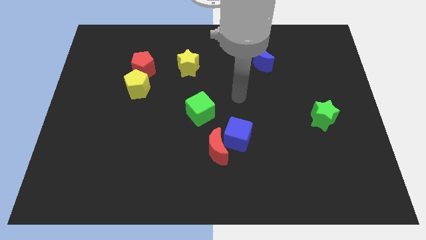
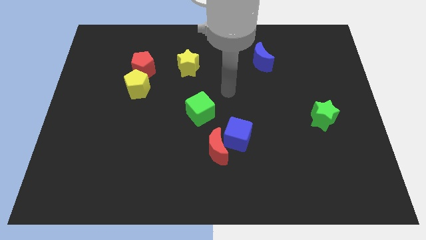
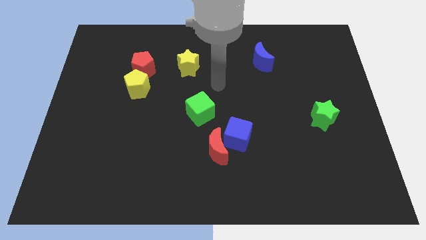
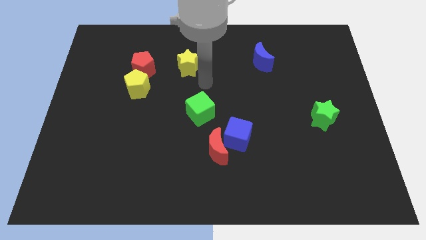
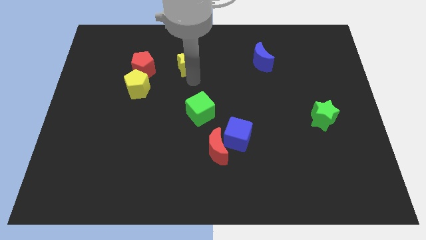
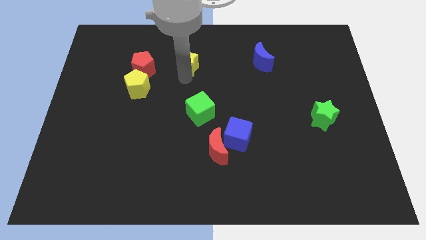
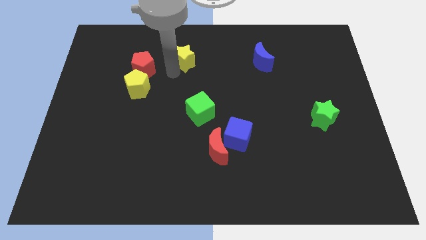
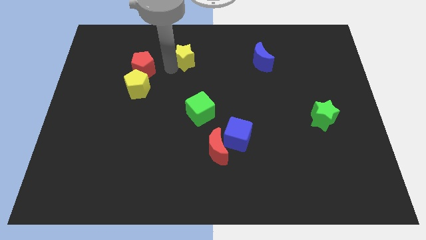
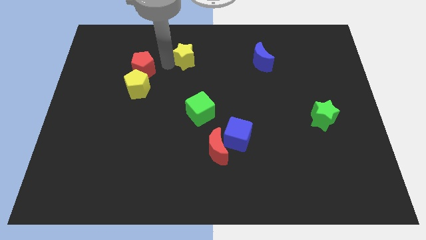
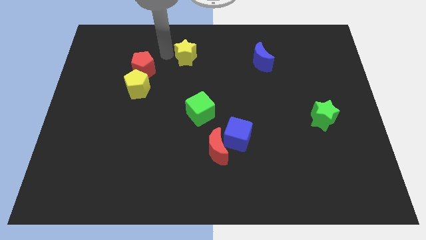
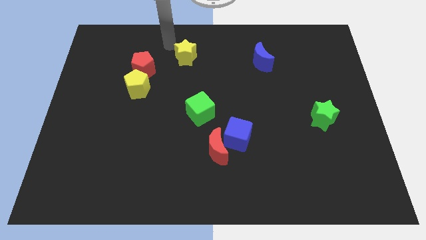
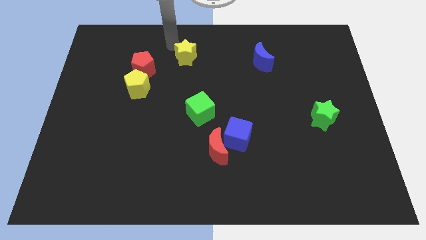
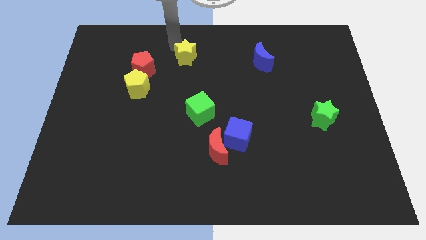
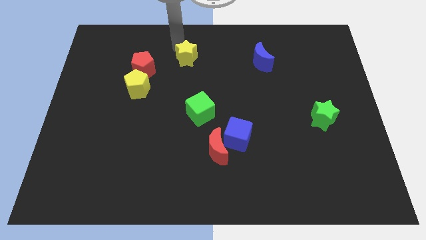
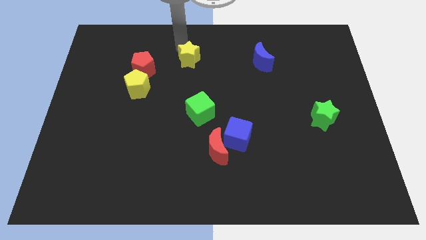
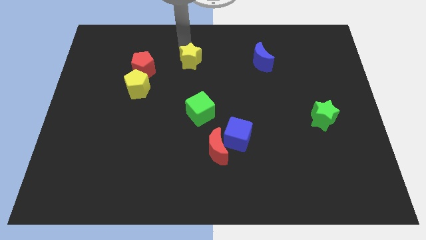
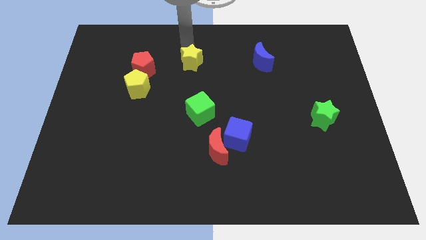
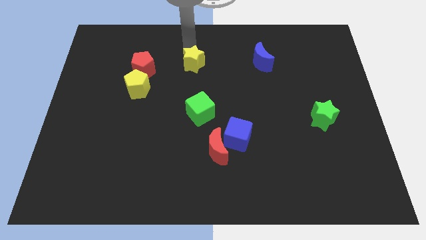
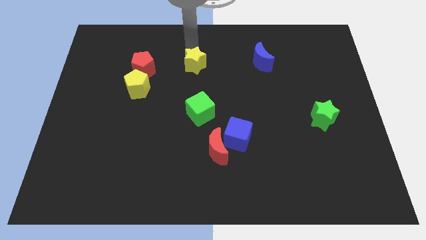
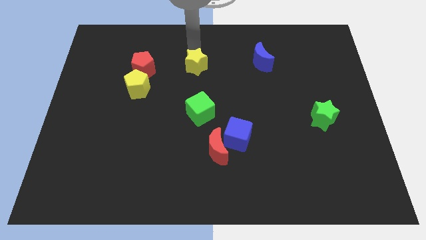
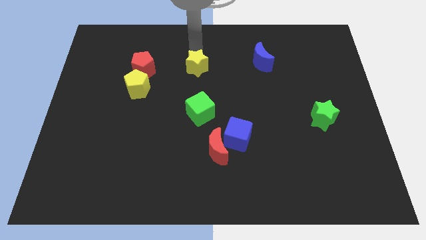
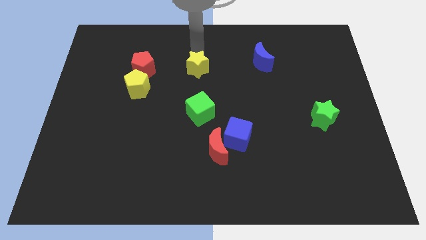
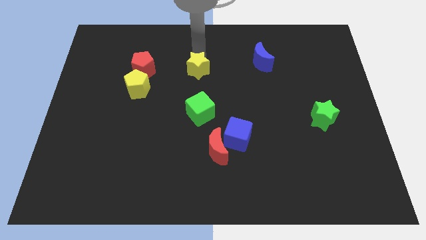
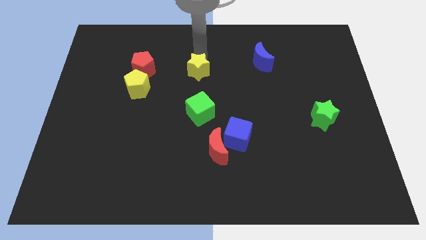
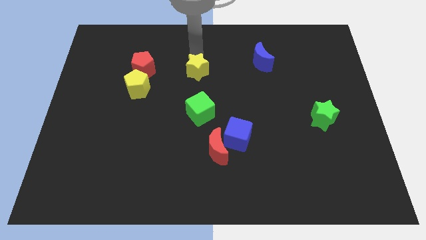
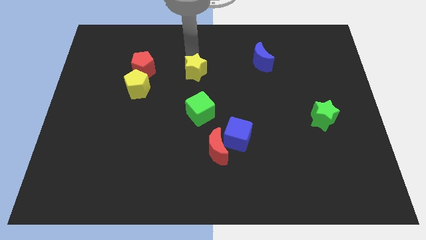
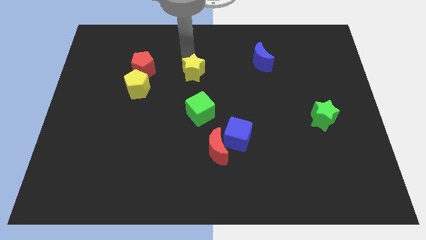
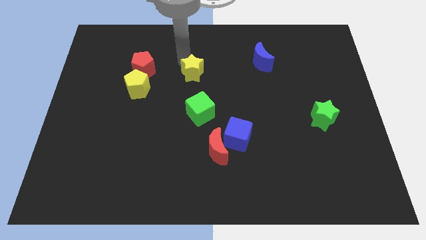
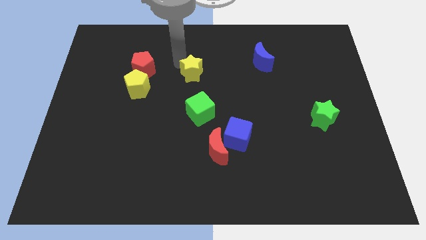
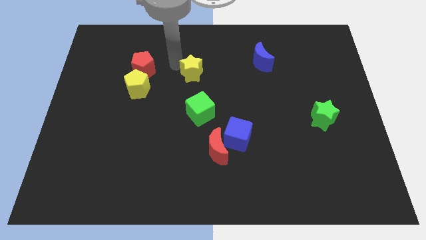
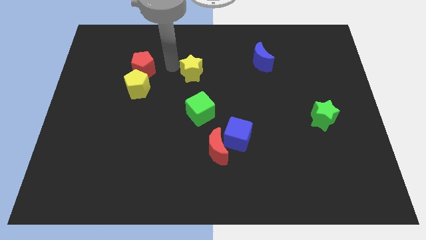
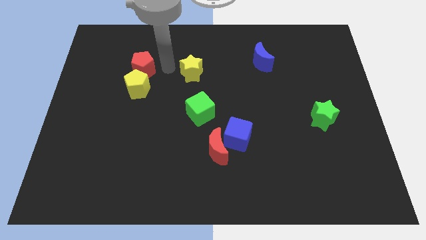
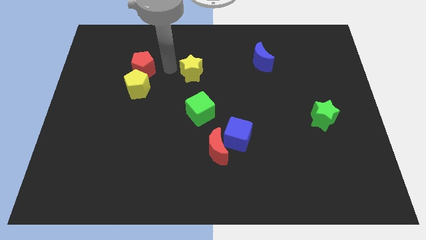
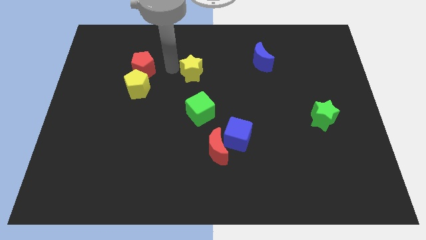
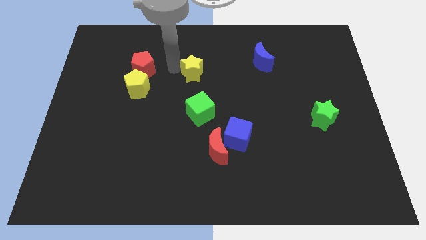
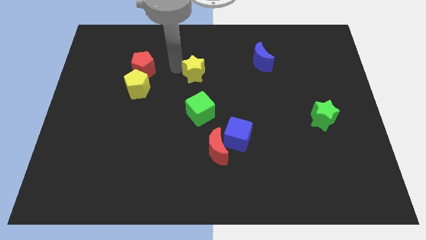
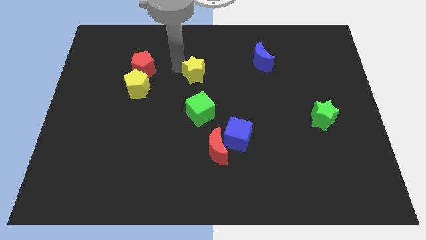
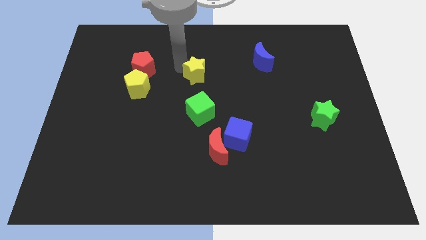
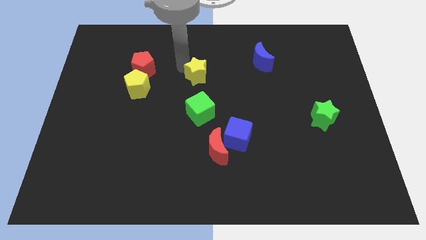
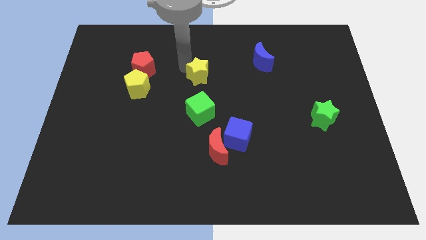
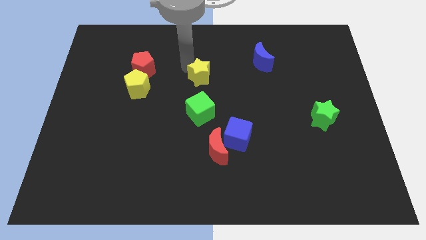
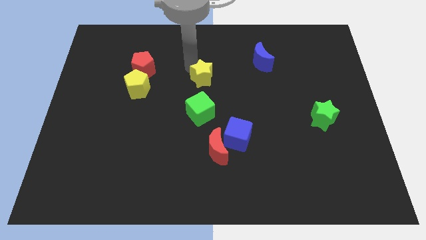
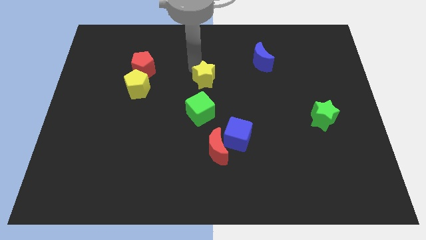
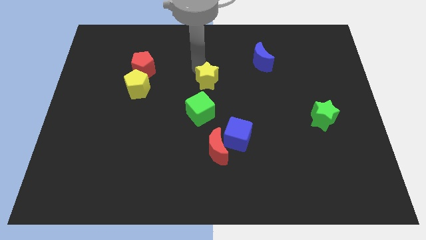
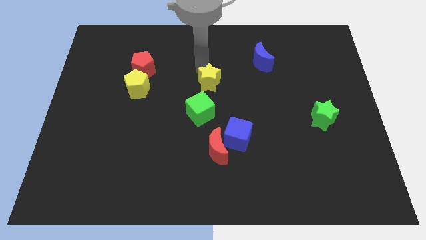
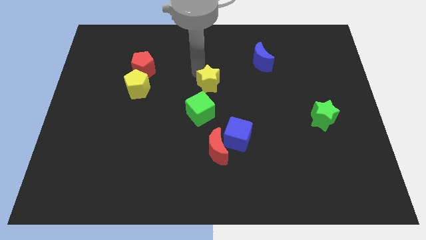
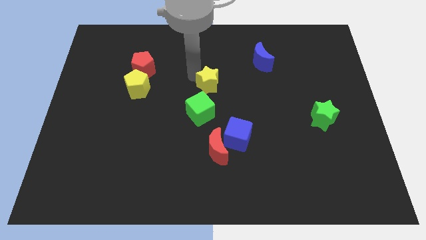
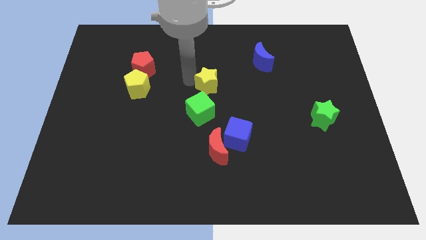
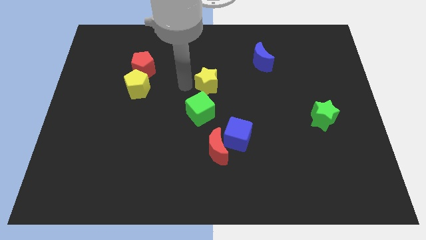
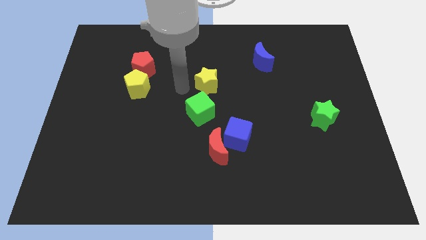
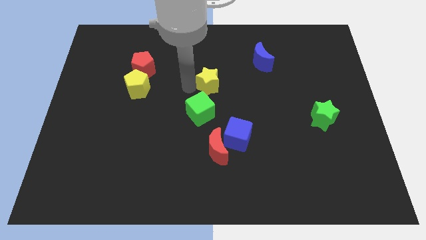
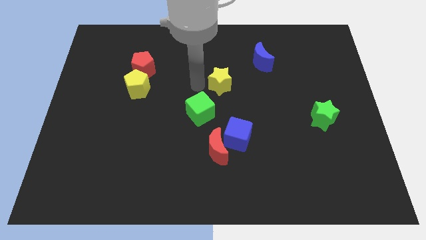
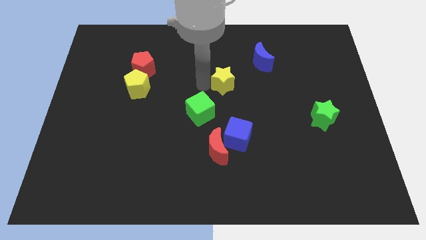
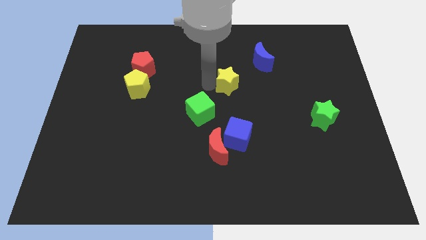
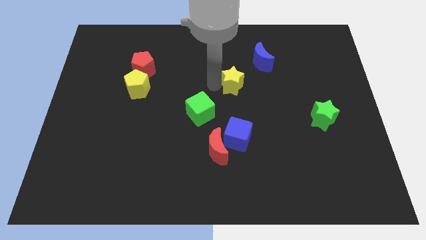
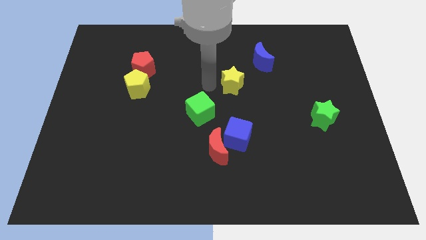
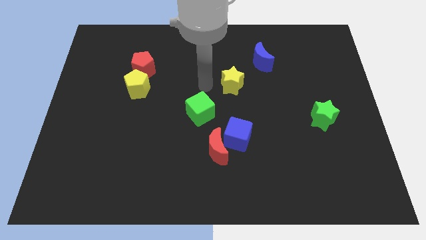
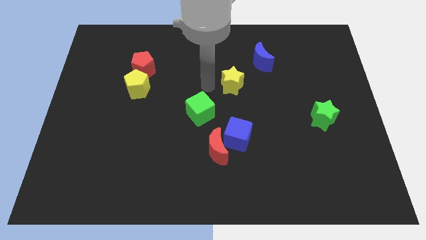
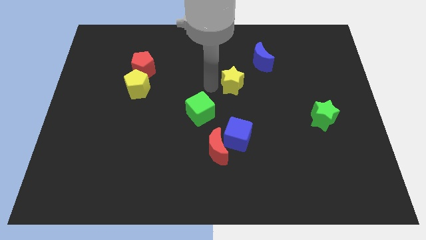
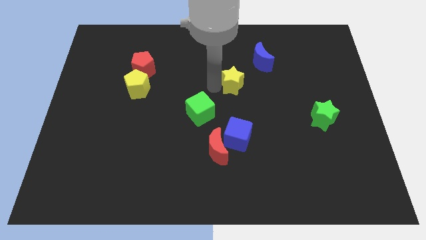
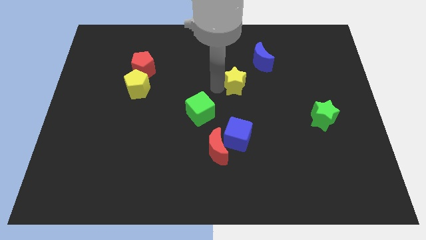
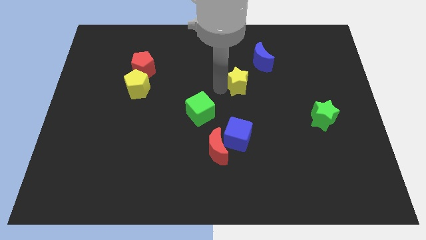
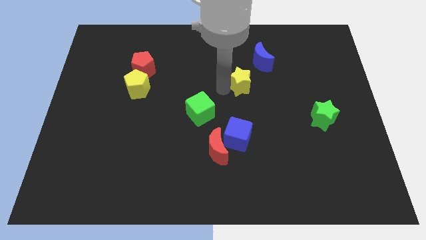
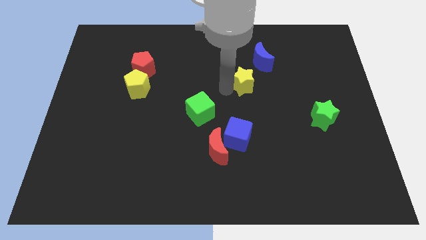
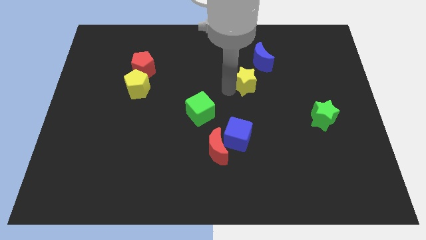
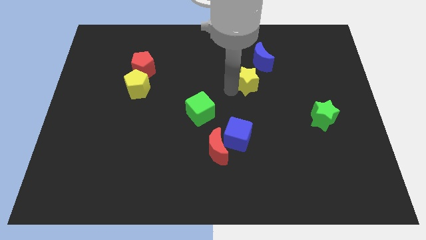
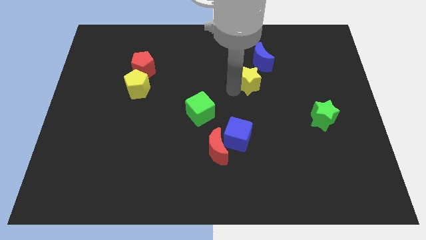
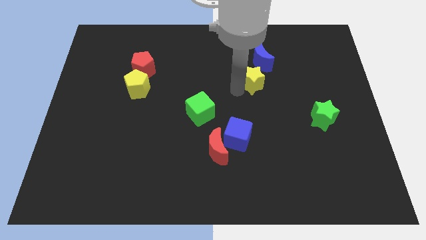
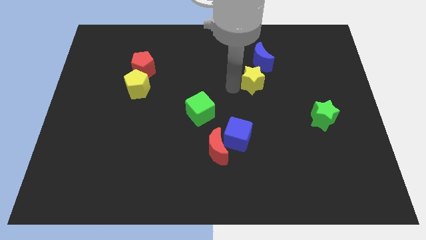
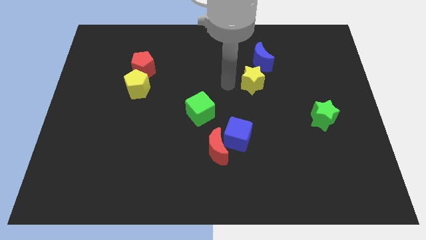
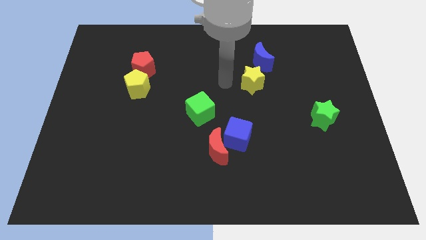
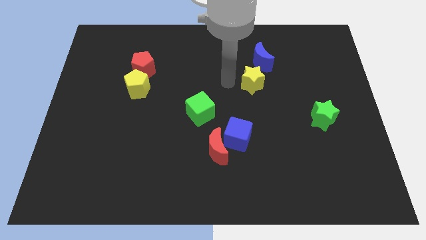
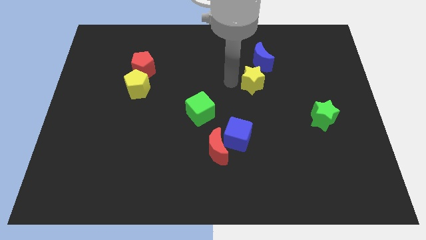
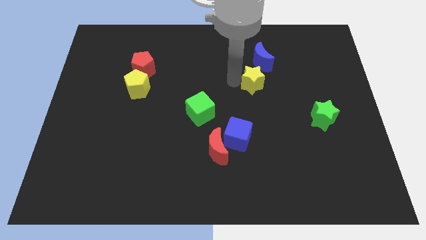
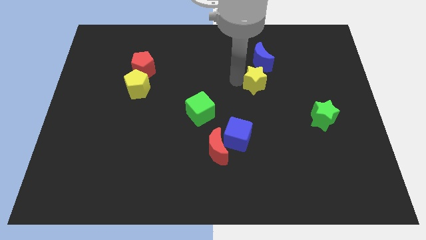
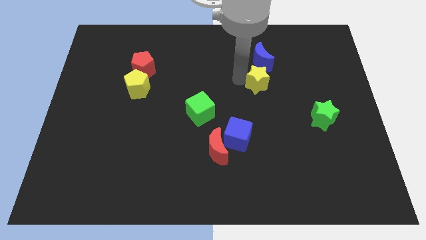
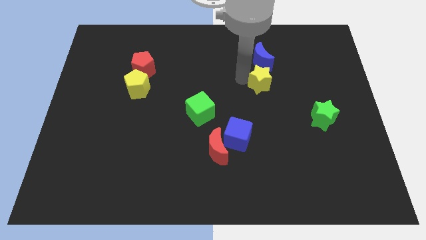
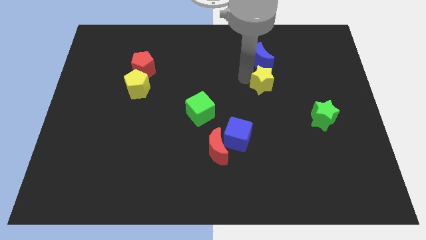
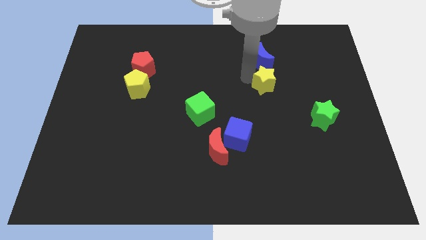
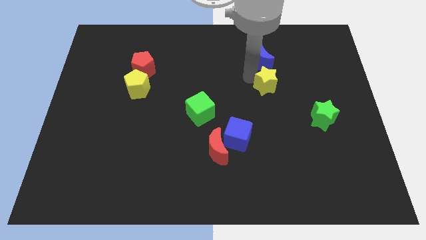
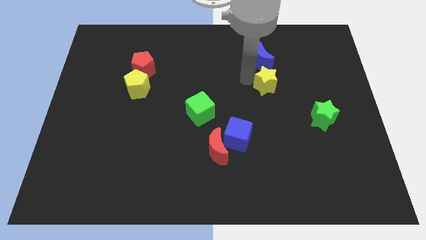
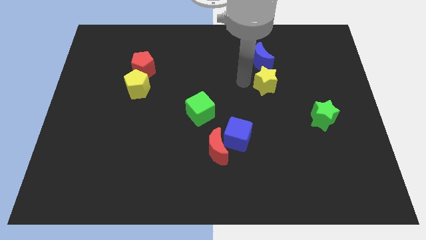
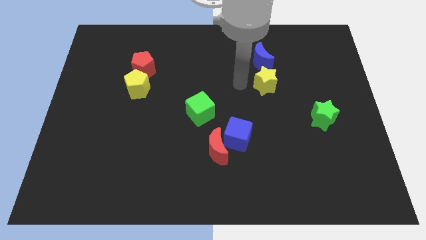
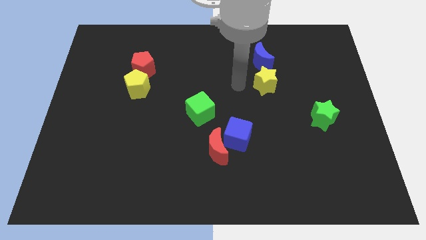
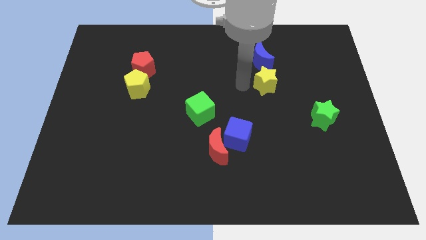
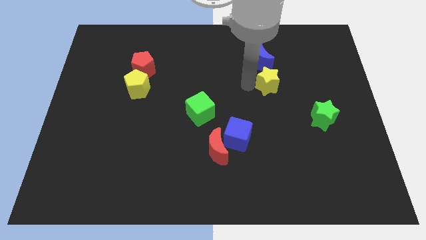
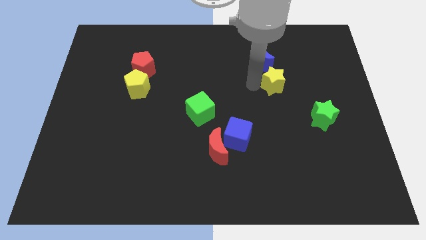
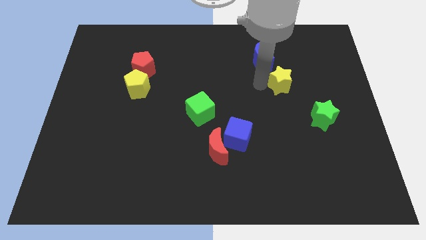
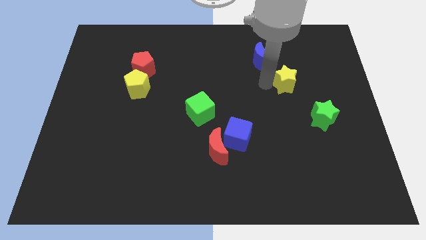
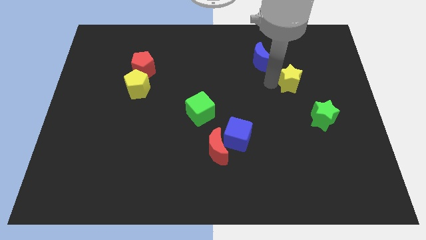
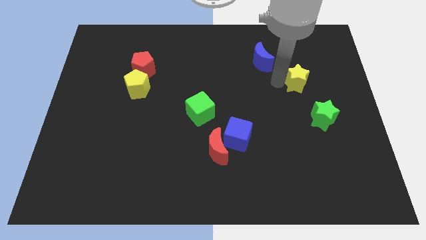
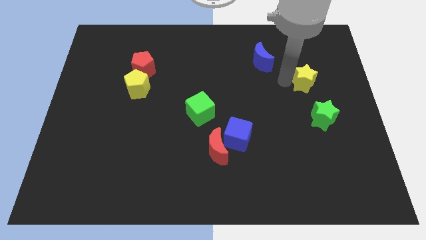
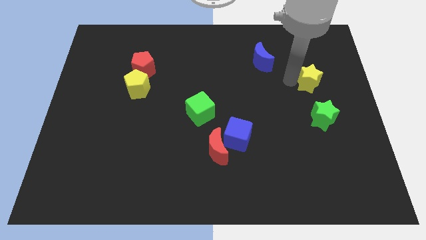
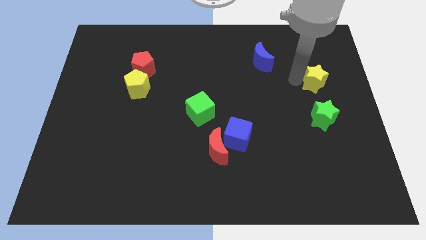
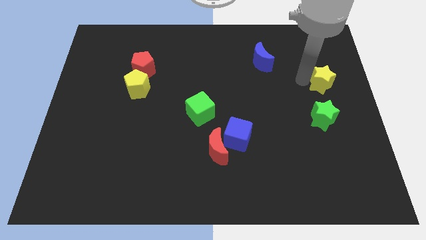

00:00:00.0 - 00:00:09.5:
slide the yellow star to the right side
